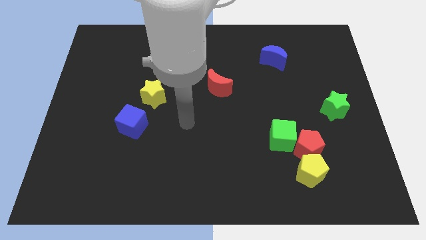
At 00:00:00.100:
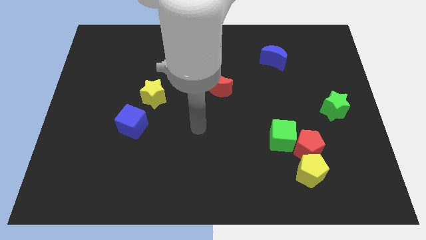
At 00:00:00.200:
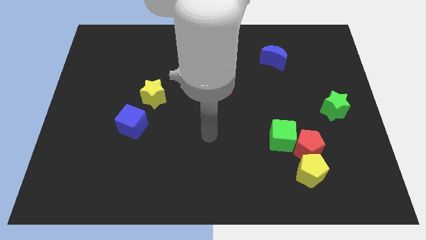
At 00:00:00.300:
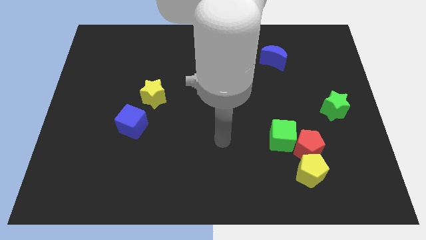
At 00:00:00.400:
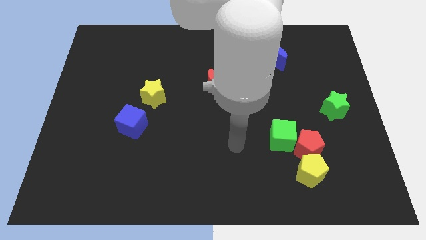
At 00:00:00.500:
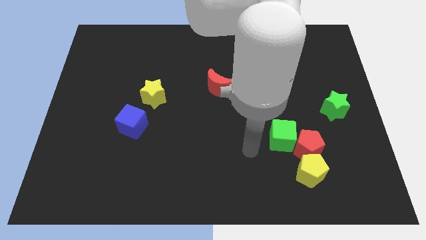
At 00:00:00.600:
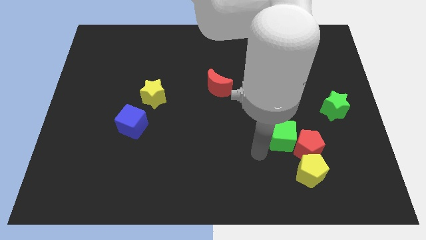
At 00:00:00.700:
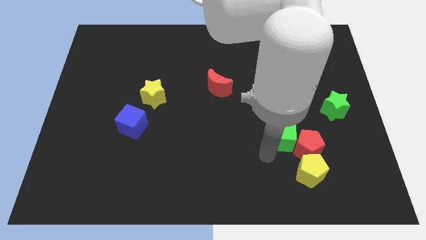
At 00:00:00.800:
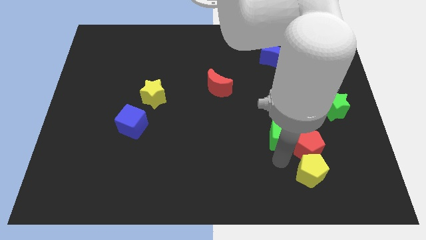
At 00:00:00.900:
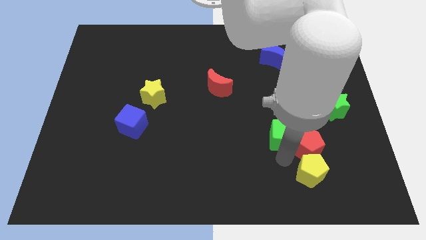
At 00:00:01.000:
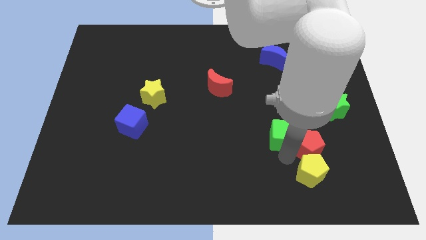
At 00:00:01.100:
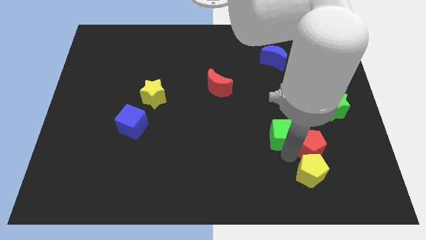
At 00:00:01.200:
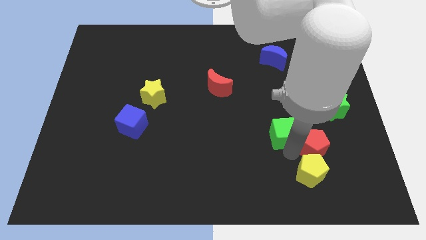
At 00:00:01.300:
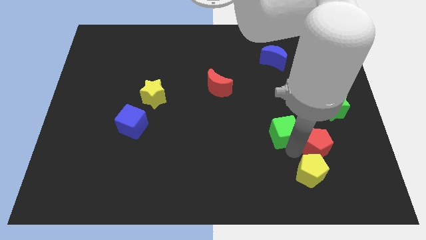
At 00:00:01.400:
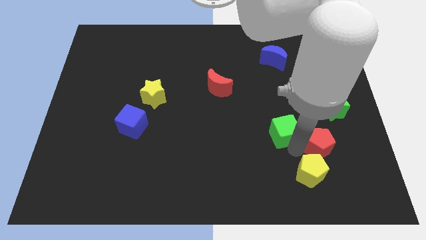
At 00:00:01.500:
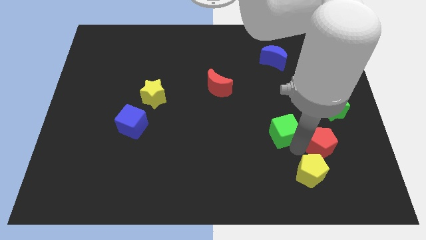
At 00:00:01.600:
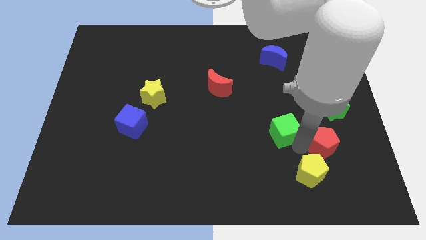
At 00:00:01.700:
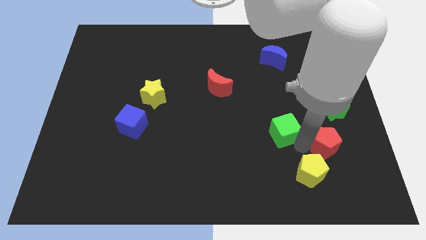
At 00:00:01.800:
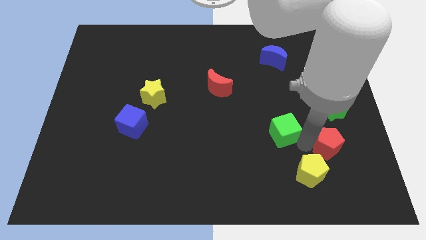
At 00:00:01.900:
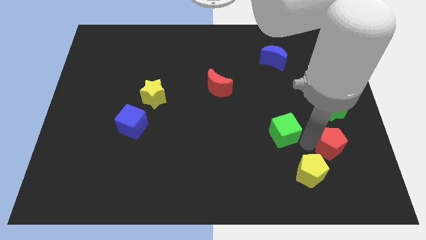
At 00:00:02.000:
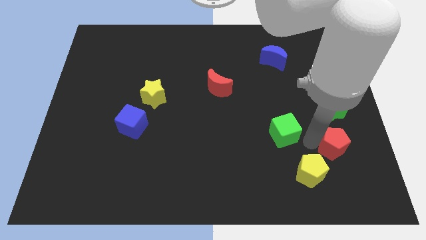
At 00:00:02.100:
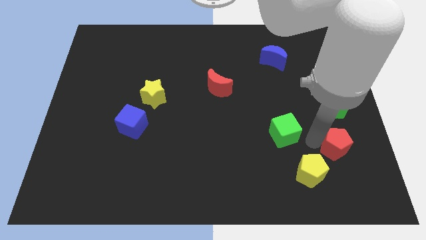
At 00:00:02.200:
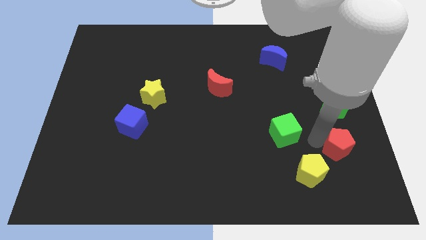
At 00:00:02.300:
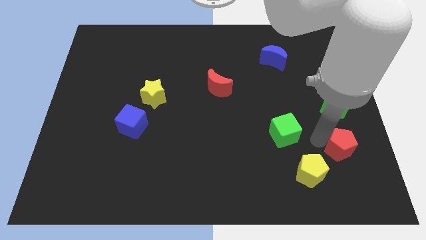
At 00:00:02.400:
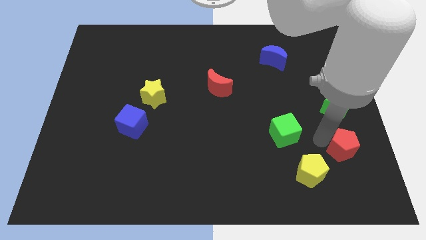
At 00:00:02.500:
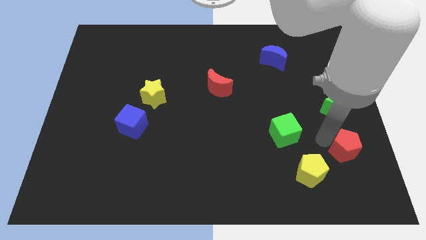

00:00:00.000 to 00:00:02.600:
move the red pentagon away from the yellow pentagon and green cube

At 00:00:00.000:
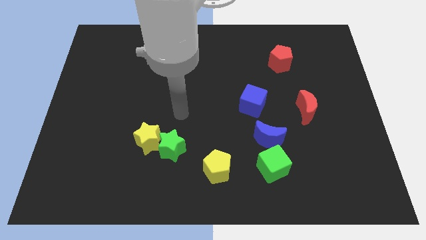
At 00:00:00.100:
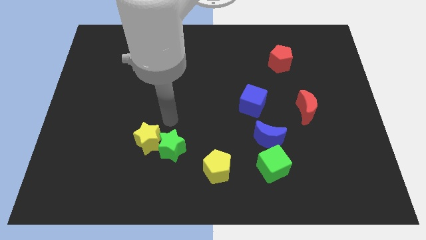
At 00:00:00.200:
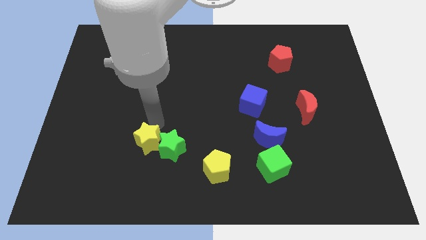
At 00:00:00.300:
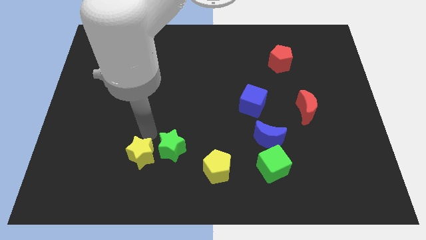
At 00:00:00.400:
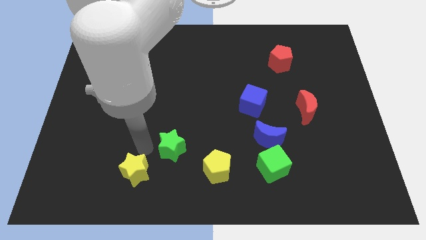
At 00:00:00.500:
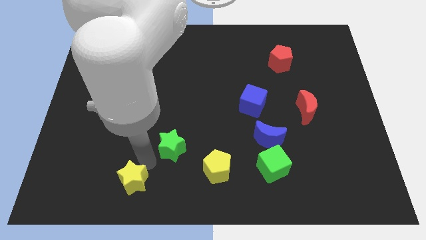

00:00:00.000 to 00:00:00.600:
move the green star away from the yellow star

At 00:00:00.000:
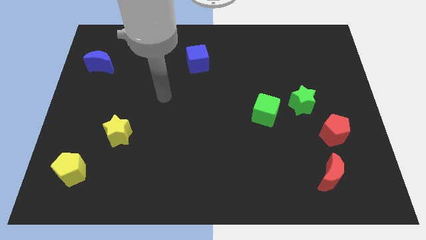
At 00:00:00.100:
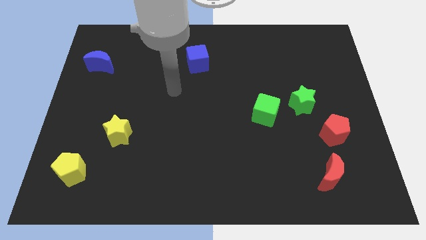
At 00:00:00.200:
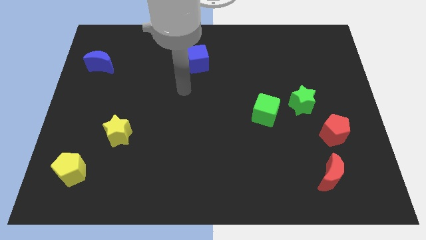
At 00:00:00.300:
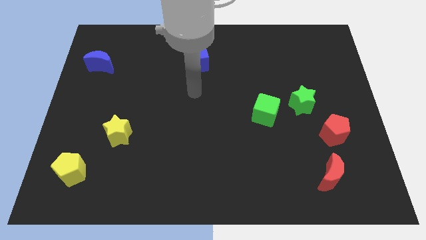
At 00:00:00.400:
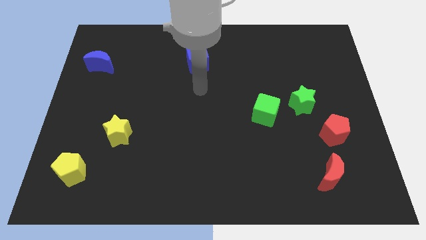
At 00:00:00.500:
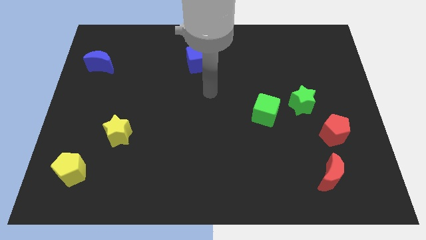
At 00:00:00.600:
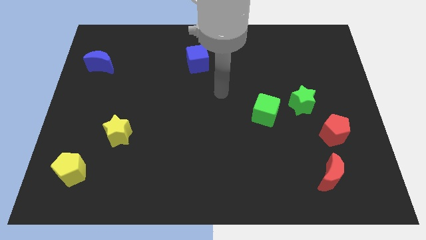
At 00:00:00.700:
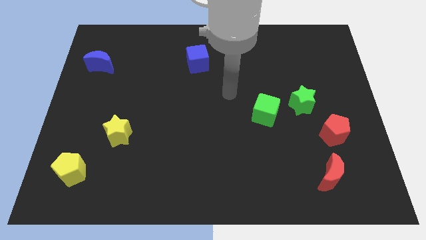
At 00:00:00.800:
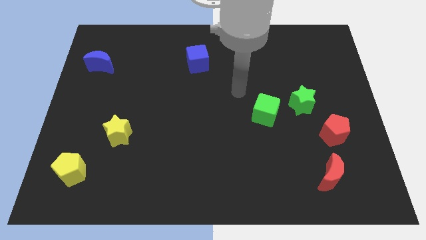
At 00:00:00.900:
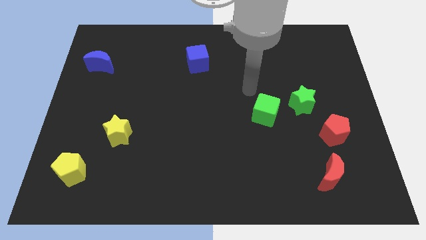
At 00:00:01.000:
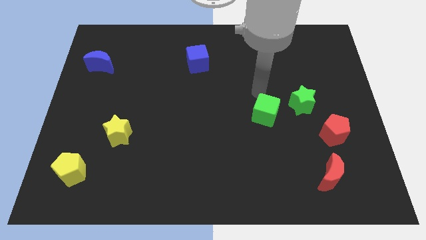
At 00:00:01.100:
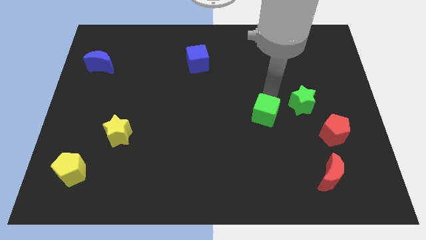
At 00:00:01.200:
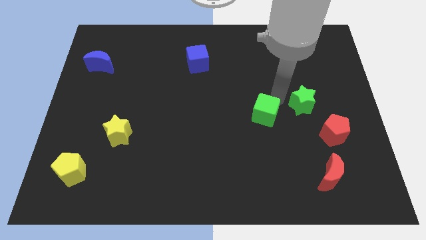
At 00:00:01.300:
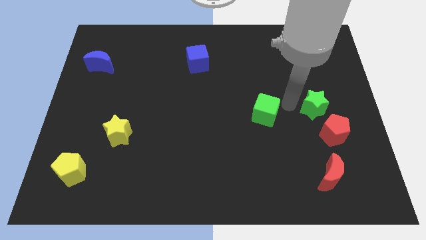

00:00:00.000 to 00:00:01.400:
pull the green cube apart from the green star

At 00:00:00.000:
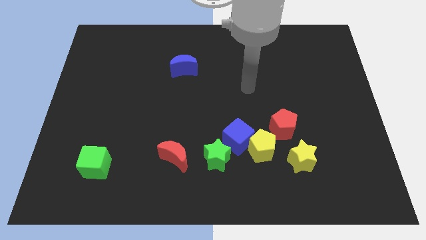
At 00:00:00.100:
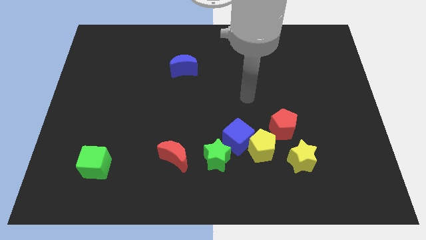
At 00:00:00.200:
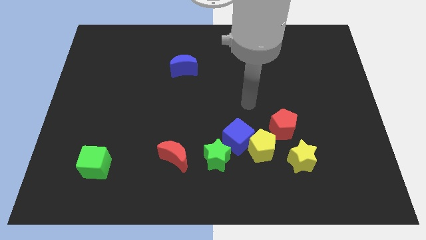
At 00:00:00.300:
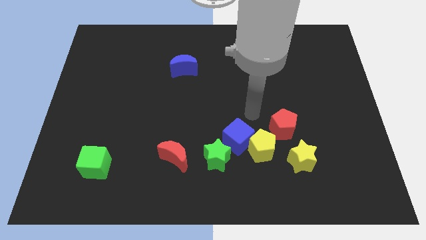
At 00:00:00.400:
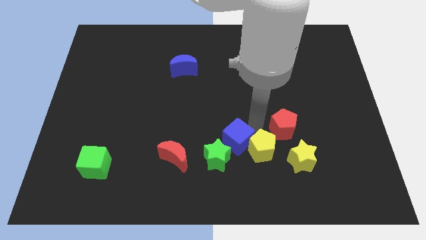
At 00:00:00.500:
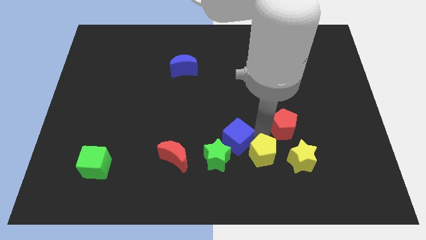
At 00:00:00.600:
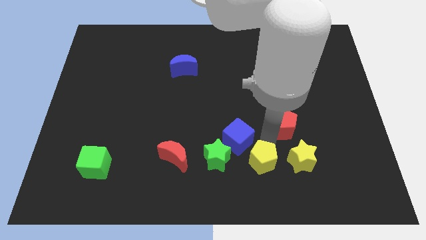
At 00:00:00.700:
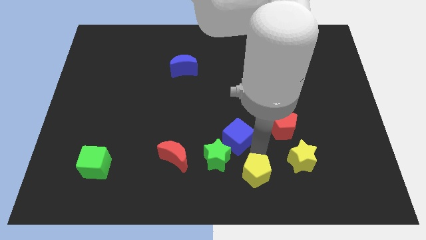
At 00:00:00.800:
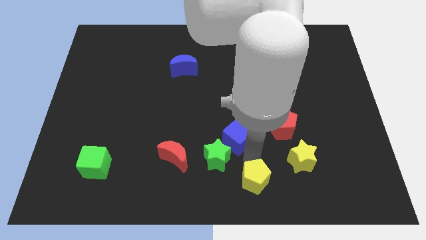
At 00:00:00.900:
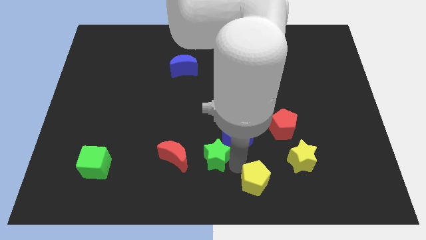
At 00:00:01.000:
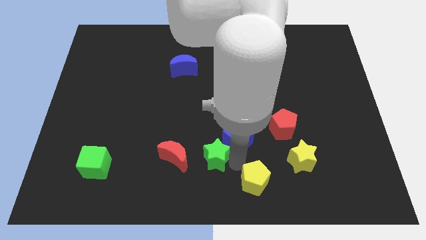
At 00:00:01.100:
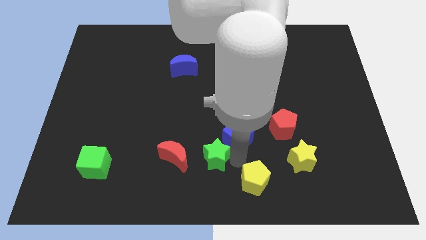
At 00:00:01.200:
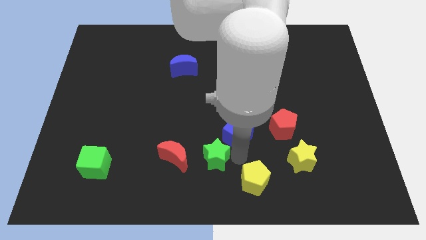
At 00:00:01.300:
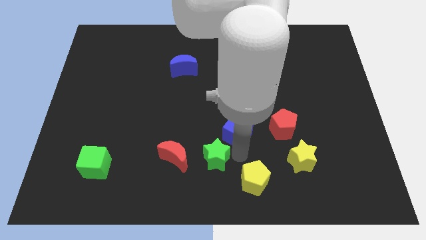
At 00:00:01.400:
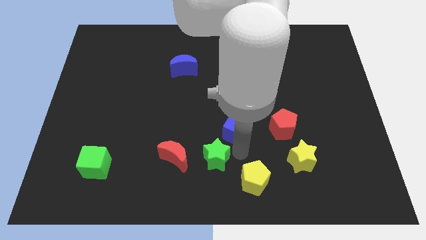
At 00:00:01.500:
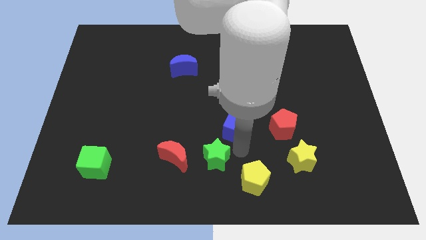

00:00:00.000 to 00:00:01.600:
pull the blue cube apart from the yellow pentagon and green star

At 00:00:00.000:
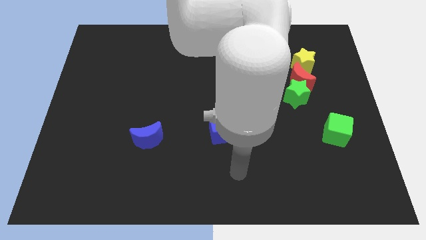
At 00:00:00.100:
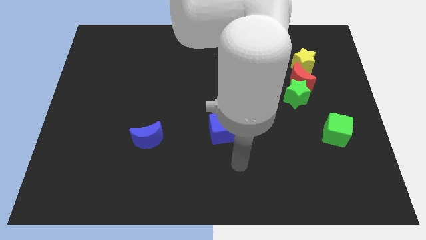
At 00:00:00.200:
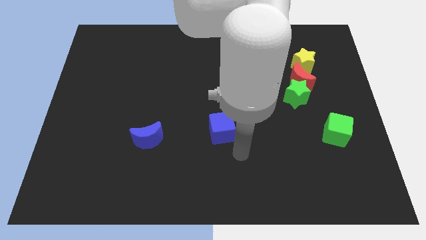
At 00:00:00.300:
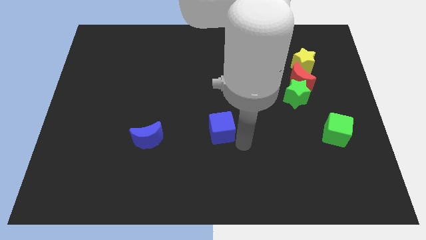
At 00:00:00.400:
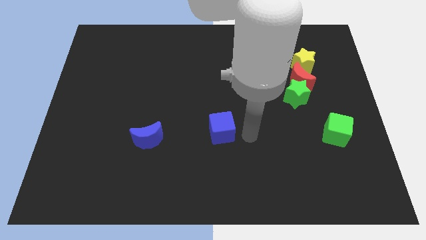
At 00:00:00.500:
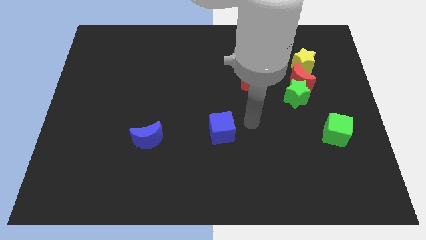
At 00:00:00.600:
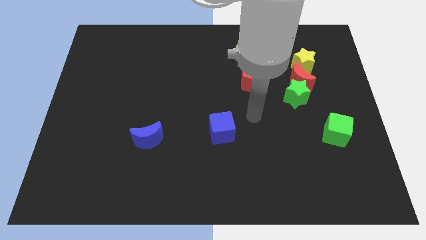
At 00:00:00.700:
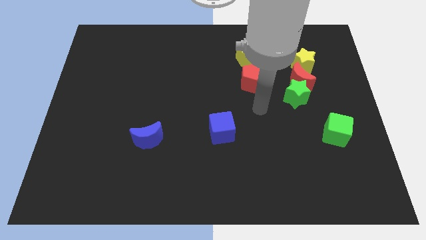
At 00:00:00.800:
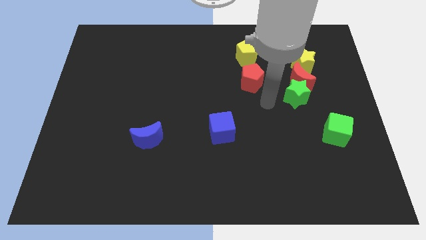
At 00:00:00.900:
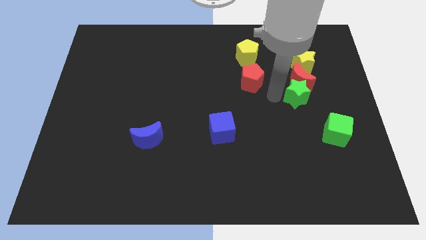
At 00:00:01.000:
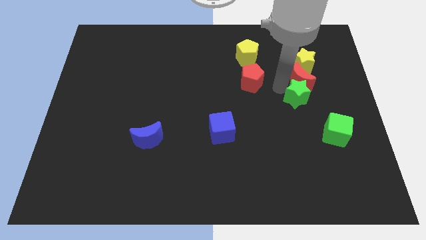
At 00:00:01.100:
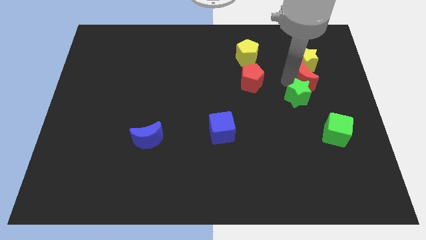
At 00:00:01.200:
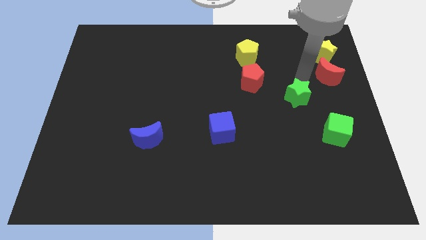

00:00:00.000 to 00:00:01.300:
separate the green star from the red moon

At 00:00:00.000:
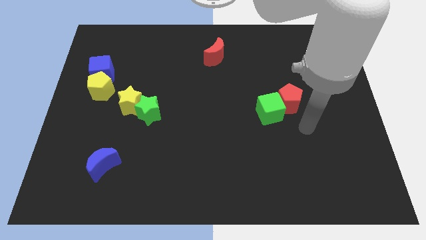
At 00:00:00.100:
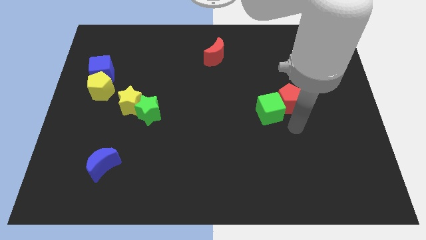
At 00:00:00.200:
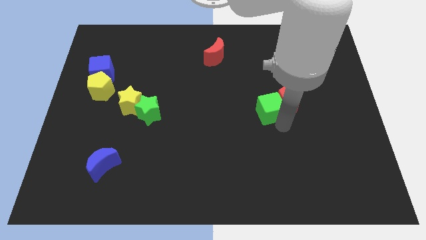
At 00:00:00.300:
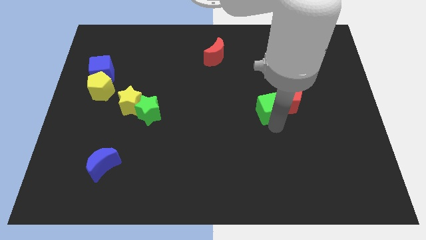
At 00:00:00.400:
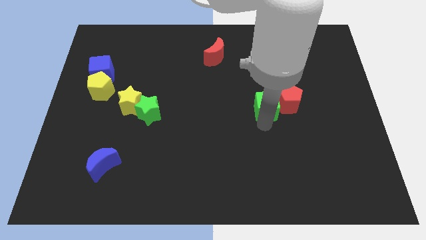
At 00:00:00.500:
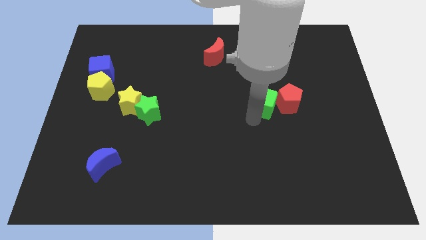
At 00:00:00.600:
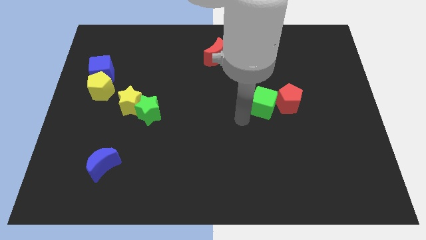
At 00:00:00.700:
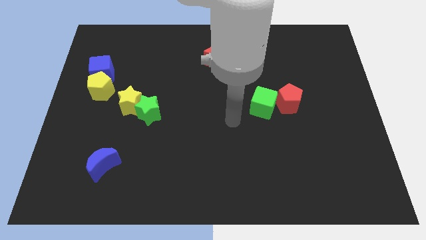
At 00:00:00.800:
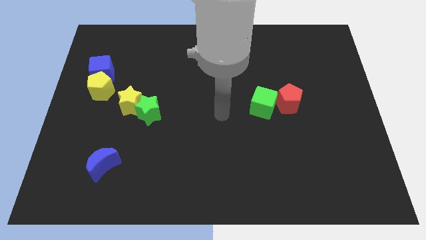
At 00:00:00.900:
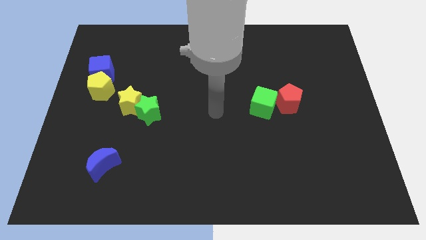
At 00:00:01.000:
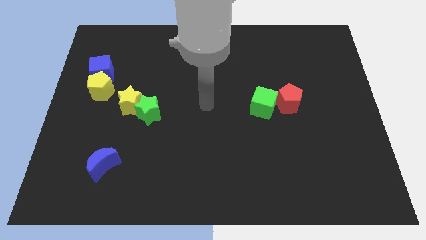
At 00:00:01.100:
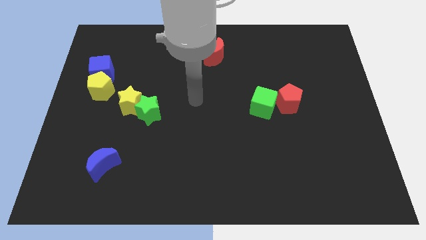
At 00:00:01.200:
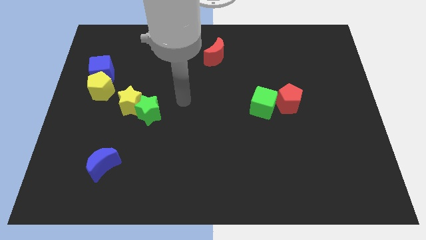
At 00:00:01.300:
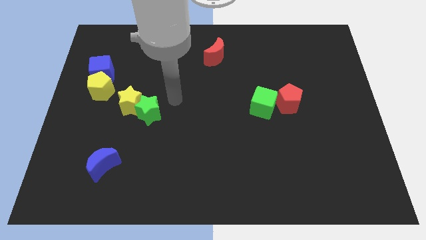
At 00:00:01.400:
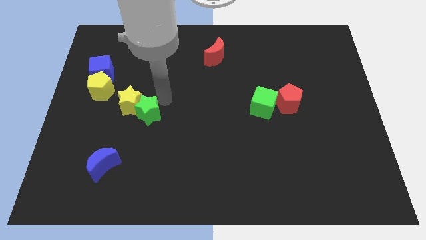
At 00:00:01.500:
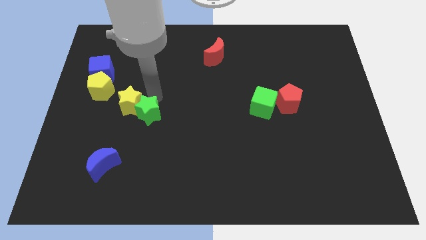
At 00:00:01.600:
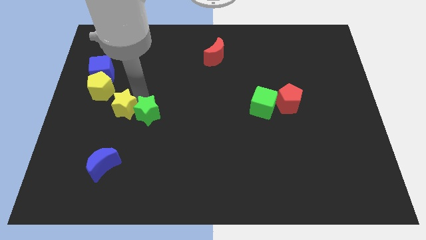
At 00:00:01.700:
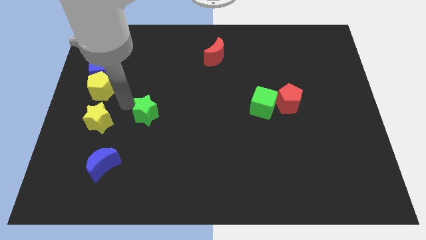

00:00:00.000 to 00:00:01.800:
pull the green star apart from the yellow star

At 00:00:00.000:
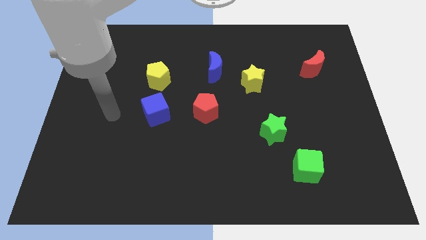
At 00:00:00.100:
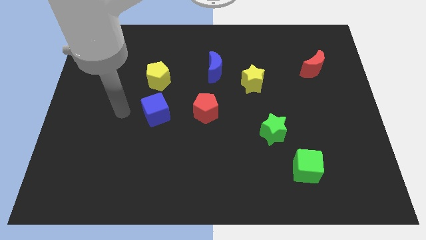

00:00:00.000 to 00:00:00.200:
pull the blue moon apart from the yellow star
